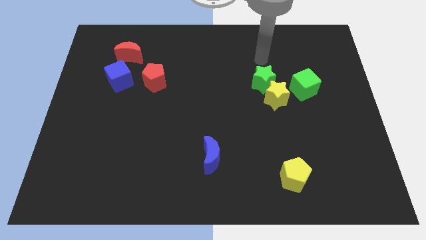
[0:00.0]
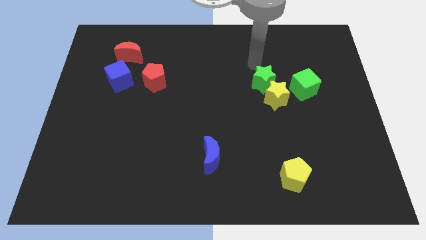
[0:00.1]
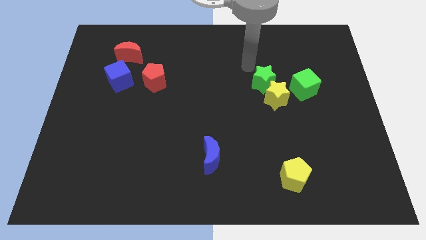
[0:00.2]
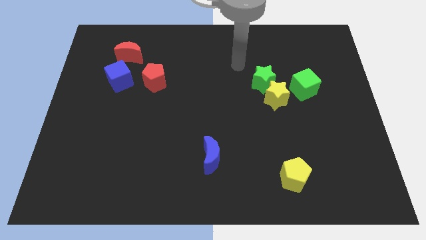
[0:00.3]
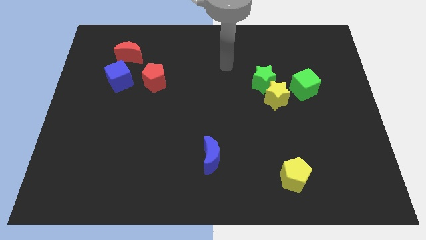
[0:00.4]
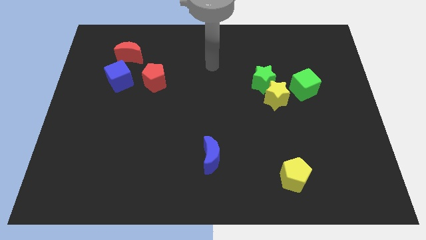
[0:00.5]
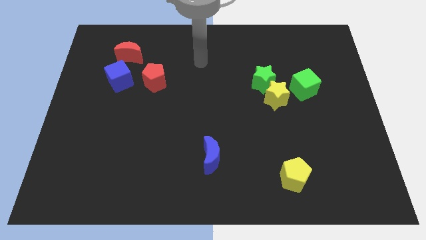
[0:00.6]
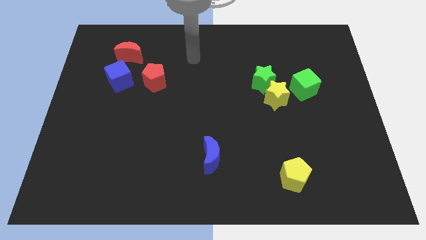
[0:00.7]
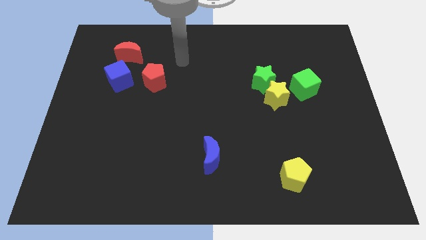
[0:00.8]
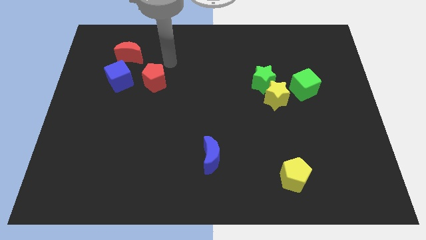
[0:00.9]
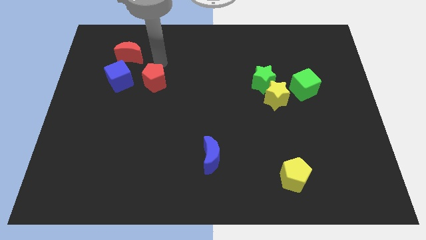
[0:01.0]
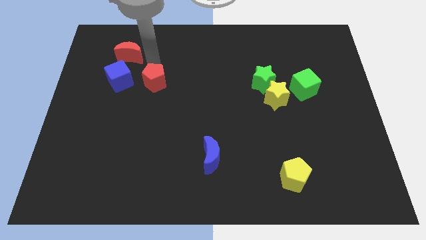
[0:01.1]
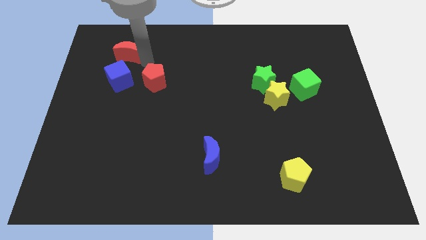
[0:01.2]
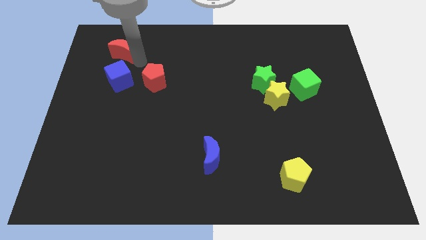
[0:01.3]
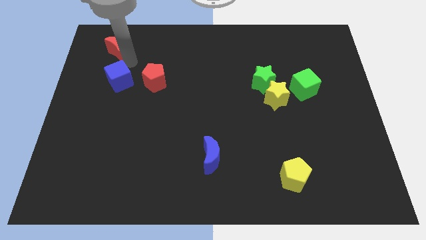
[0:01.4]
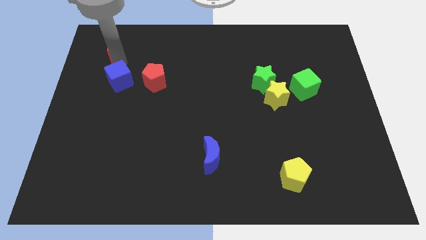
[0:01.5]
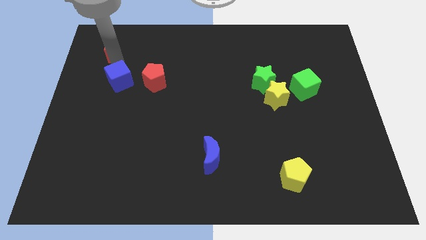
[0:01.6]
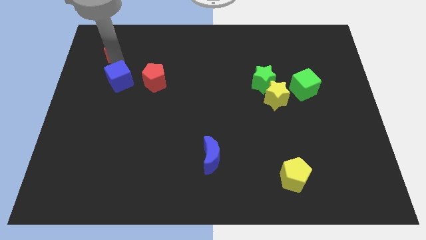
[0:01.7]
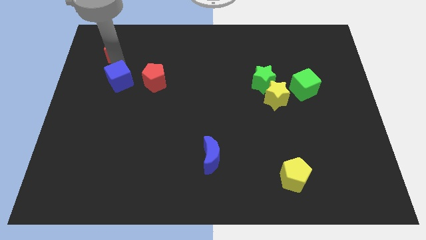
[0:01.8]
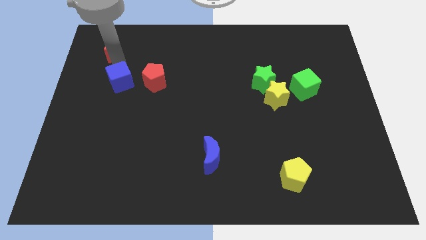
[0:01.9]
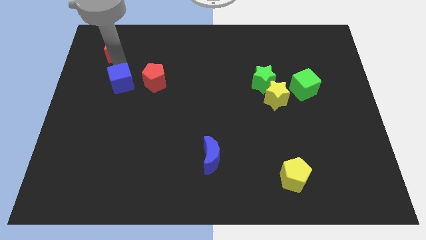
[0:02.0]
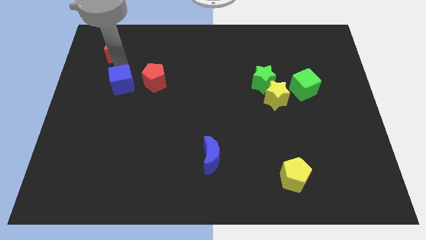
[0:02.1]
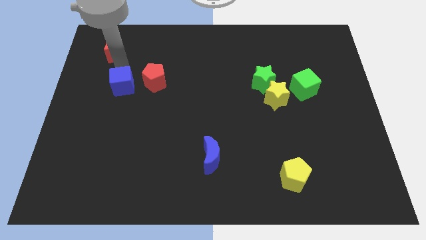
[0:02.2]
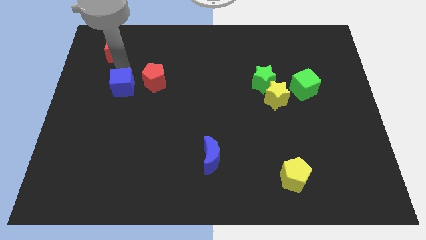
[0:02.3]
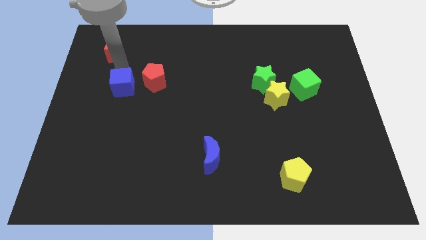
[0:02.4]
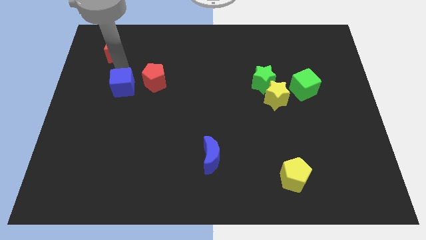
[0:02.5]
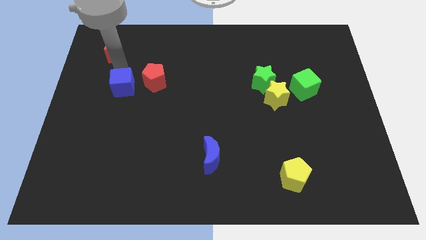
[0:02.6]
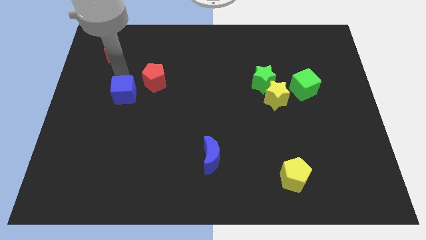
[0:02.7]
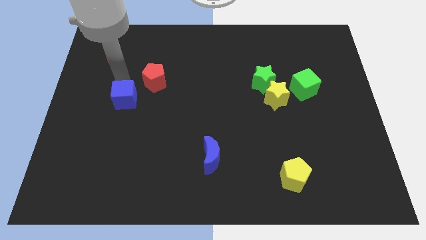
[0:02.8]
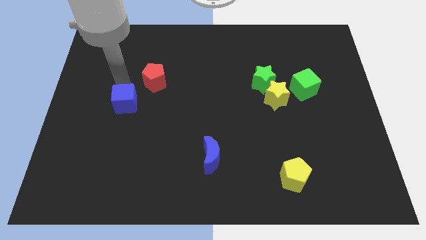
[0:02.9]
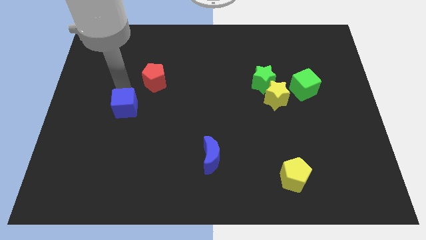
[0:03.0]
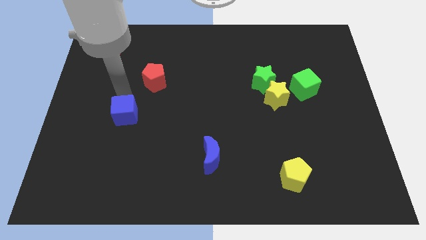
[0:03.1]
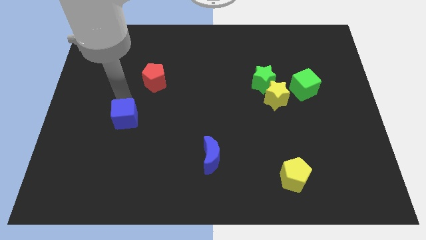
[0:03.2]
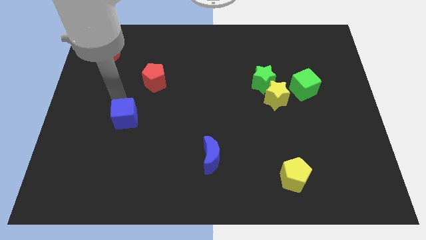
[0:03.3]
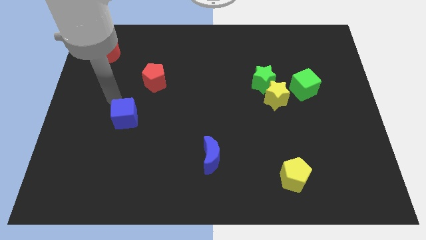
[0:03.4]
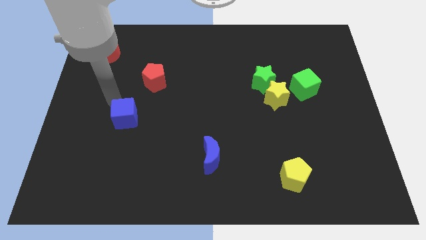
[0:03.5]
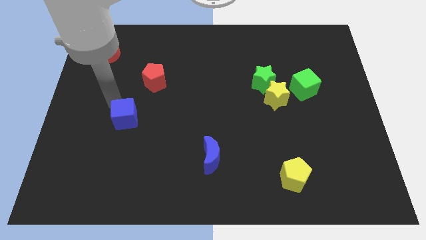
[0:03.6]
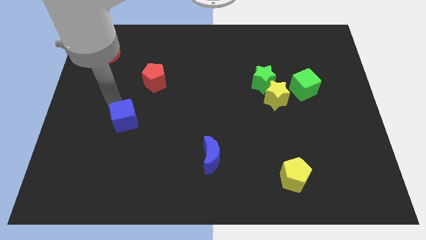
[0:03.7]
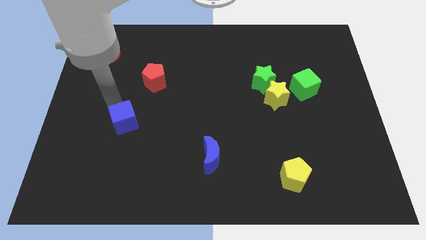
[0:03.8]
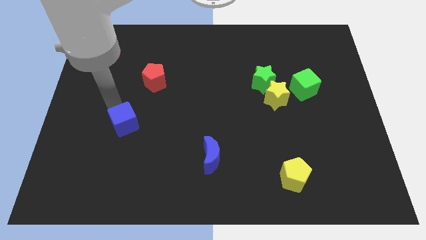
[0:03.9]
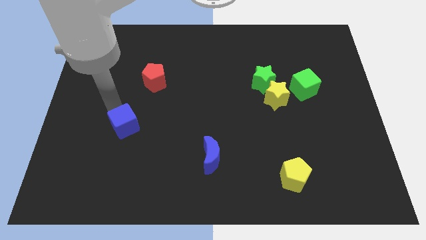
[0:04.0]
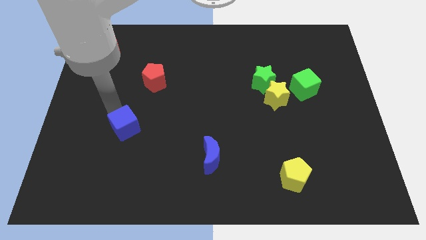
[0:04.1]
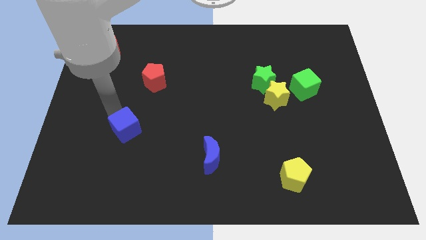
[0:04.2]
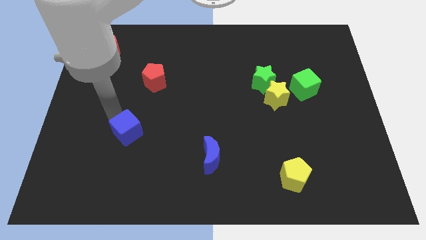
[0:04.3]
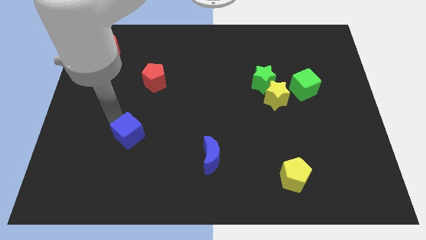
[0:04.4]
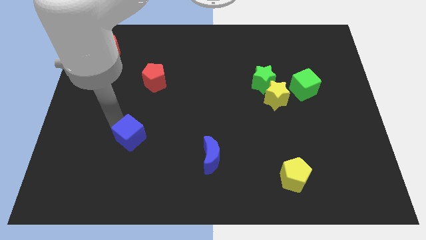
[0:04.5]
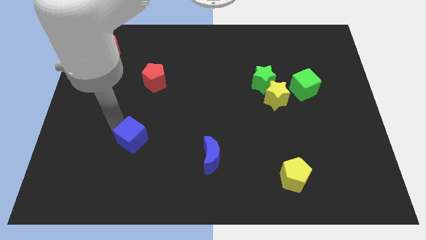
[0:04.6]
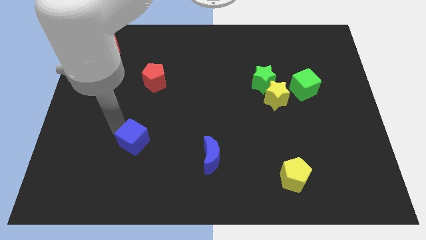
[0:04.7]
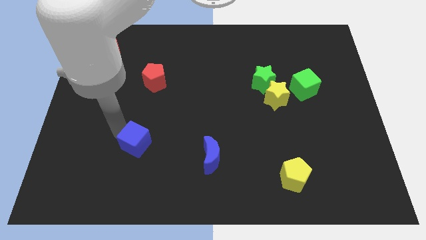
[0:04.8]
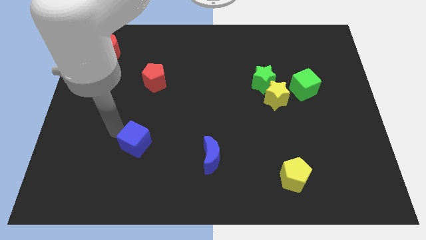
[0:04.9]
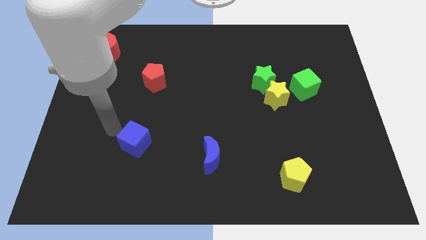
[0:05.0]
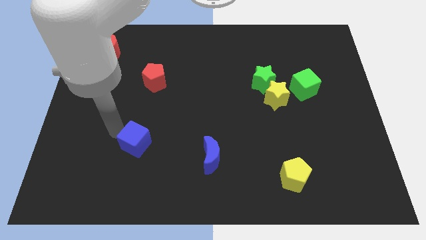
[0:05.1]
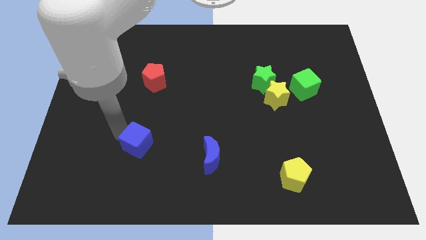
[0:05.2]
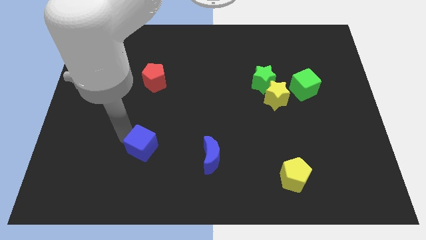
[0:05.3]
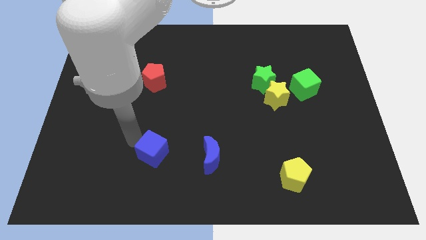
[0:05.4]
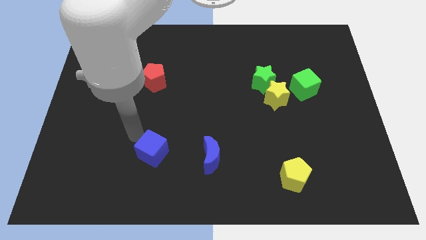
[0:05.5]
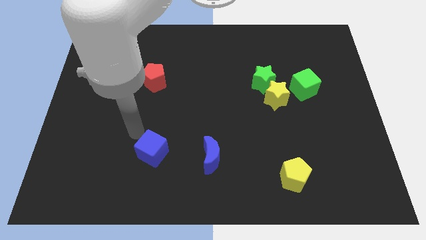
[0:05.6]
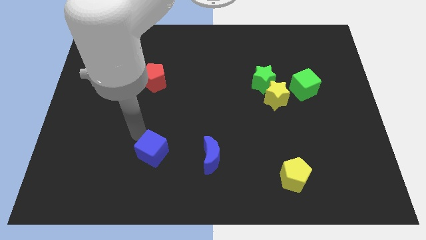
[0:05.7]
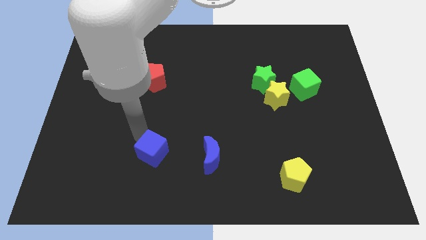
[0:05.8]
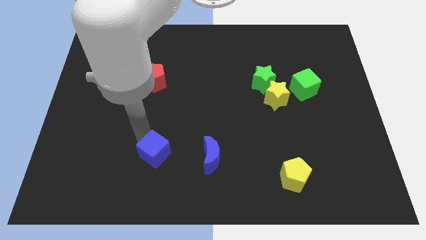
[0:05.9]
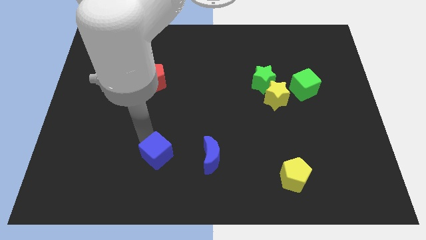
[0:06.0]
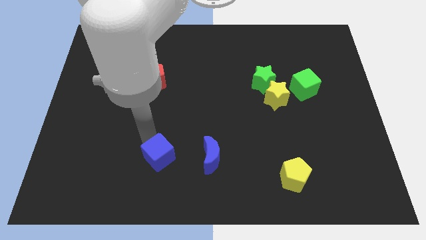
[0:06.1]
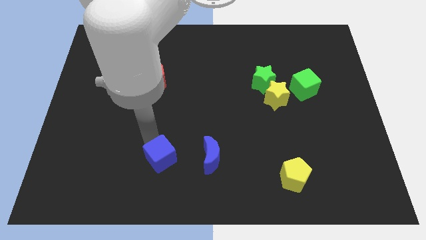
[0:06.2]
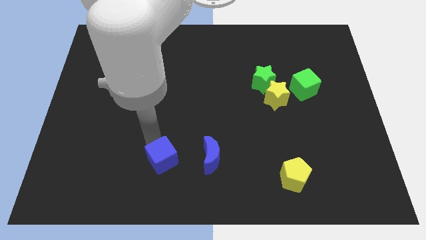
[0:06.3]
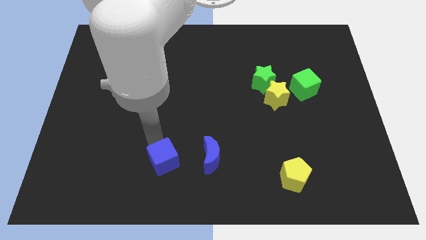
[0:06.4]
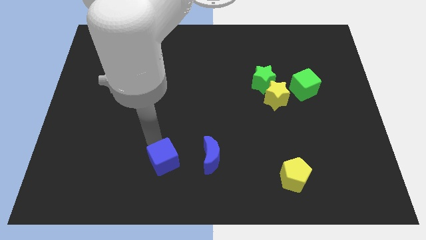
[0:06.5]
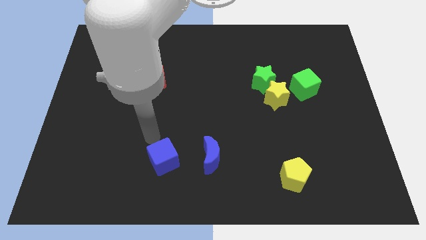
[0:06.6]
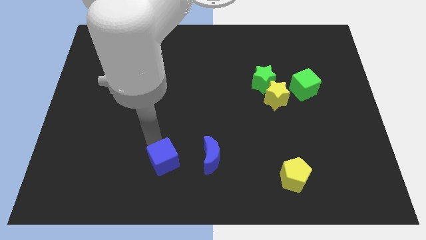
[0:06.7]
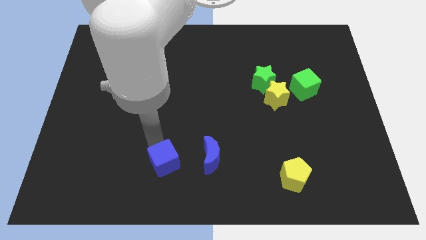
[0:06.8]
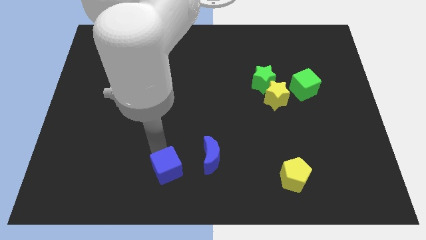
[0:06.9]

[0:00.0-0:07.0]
put the blue cube to the bottom
